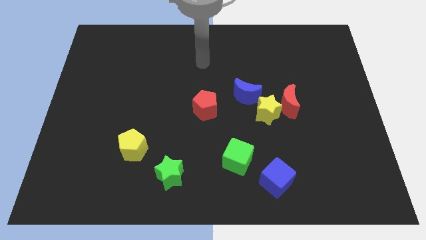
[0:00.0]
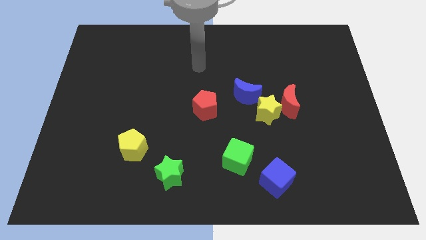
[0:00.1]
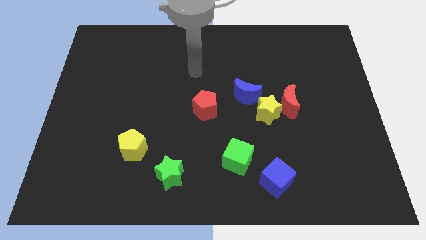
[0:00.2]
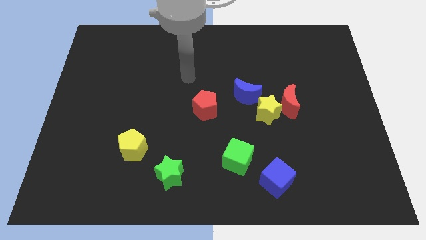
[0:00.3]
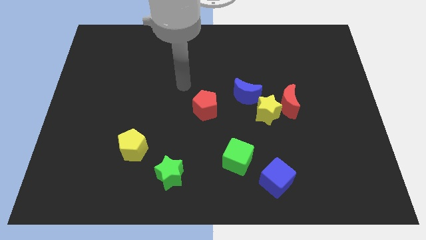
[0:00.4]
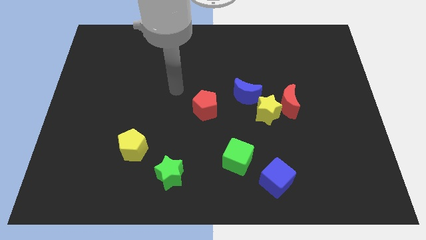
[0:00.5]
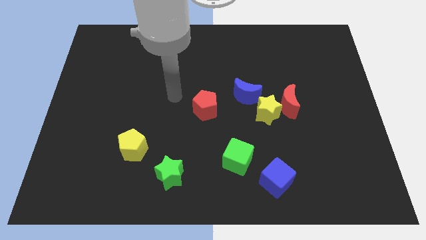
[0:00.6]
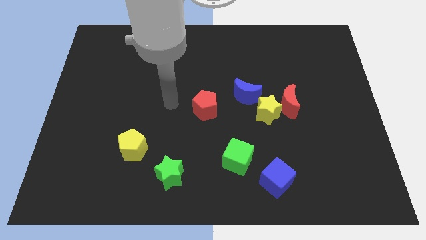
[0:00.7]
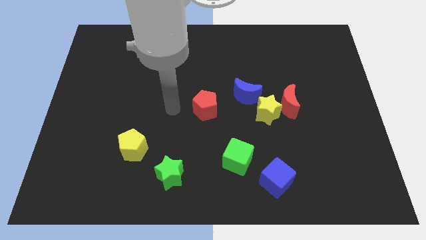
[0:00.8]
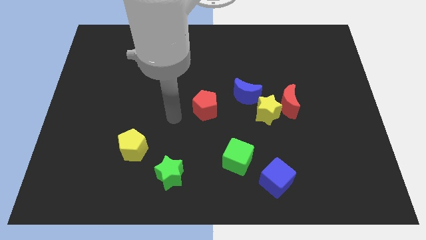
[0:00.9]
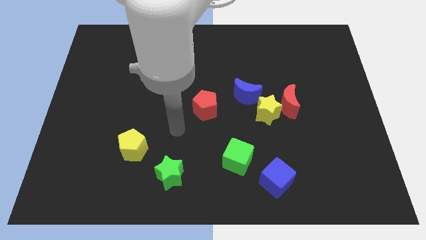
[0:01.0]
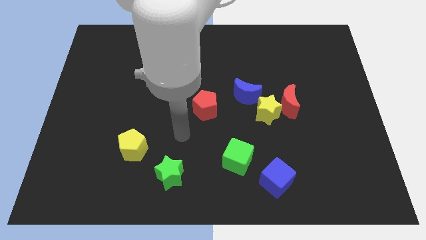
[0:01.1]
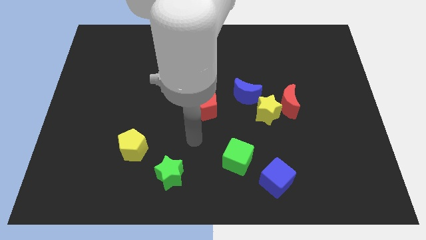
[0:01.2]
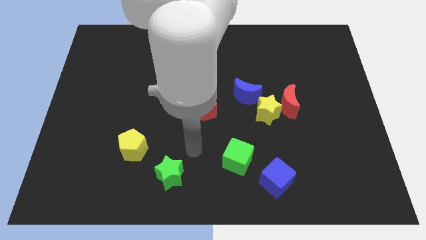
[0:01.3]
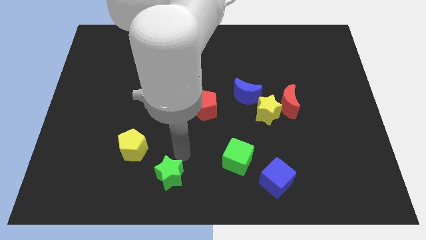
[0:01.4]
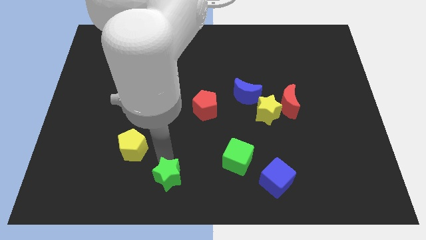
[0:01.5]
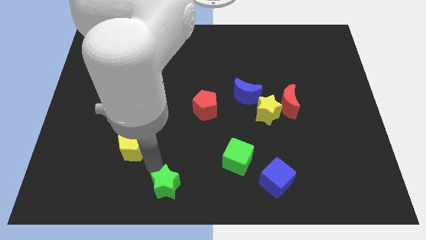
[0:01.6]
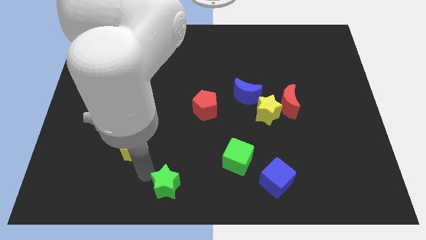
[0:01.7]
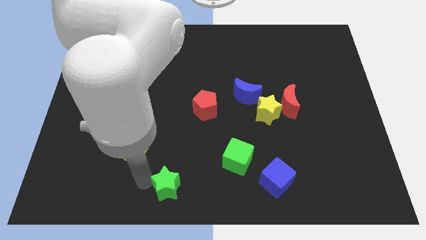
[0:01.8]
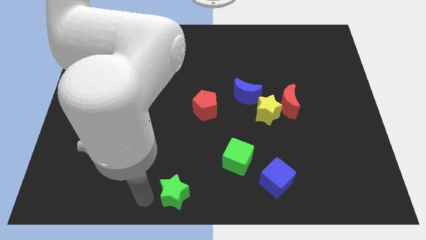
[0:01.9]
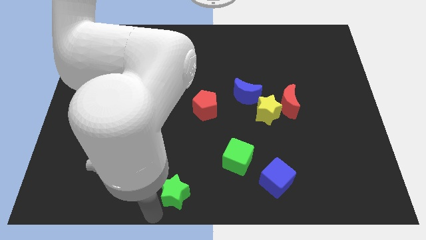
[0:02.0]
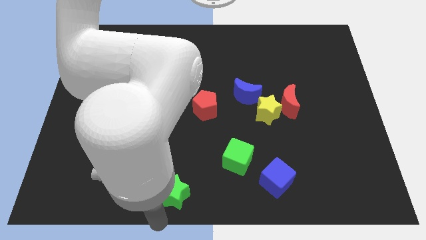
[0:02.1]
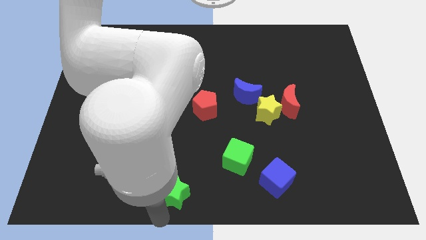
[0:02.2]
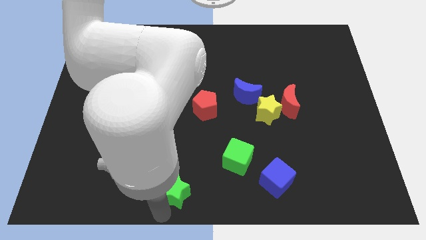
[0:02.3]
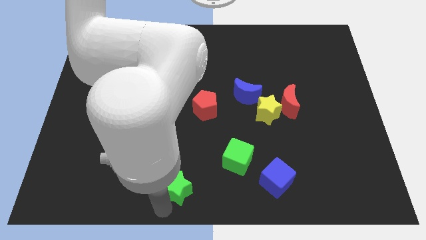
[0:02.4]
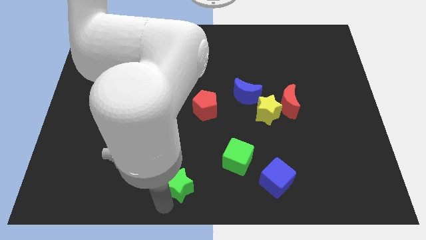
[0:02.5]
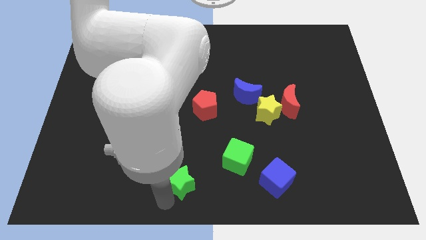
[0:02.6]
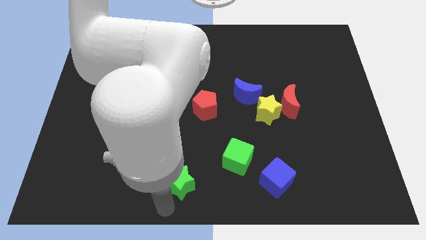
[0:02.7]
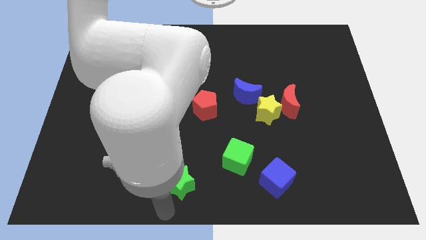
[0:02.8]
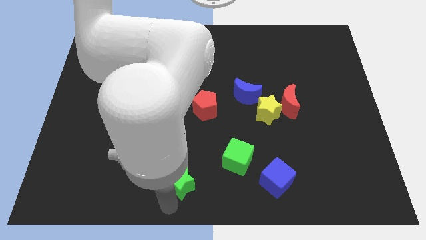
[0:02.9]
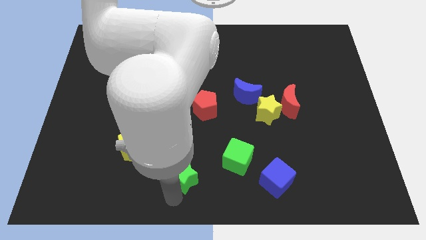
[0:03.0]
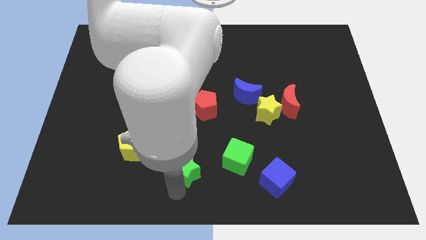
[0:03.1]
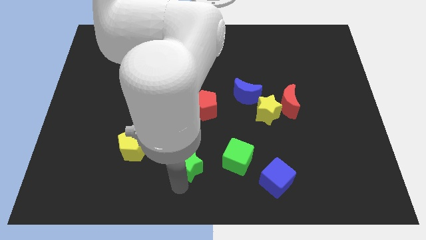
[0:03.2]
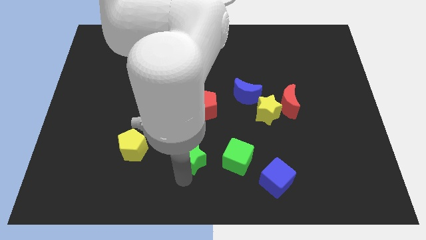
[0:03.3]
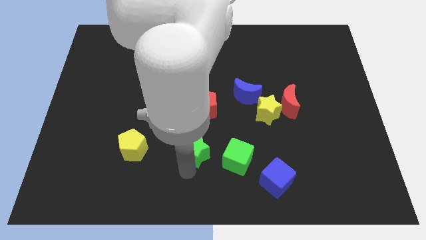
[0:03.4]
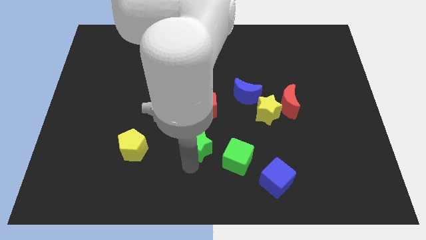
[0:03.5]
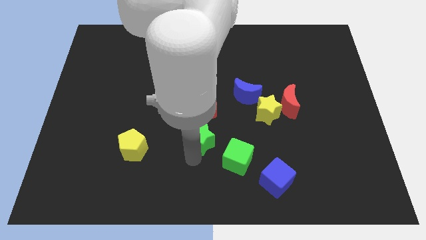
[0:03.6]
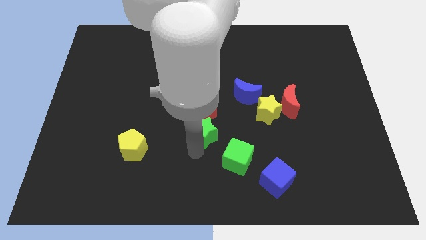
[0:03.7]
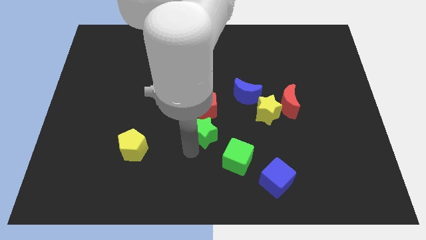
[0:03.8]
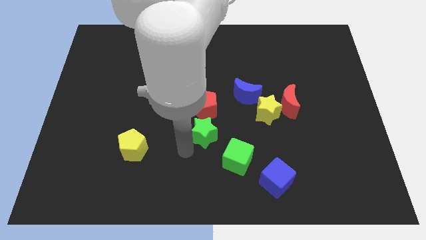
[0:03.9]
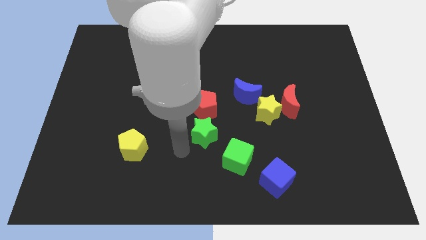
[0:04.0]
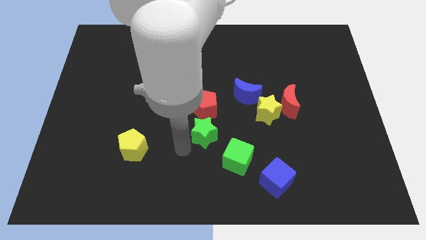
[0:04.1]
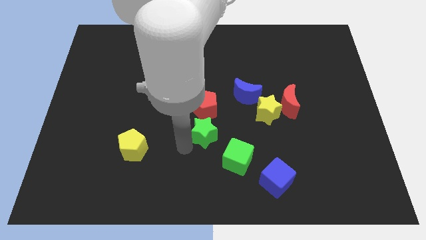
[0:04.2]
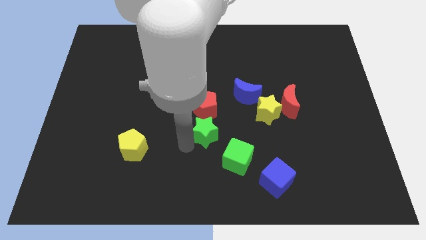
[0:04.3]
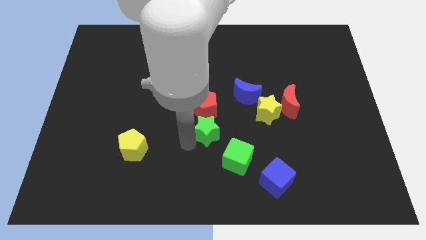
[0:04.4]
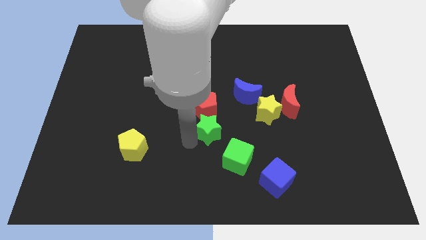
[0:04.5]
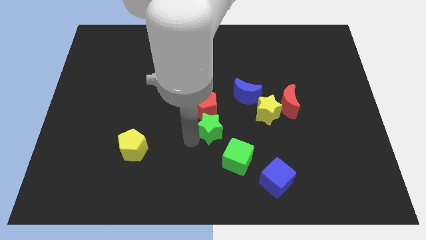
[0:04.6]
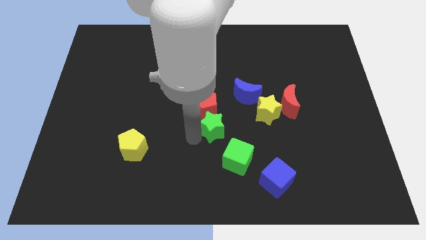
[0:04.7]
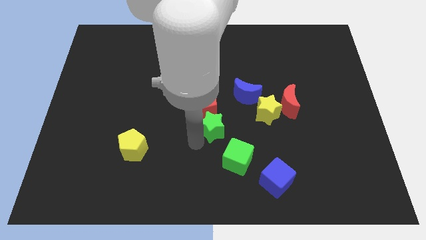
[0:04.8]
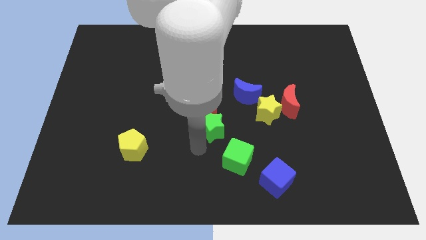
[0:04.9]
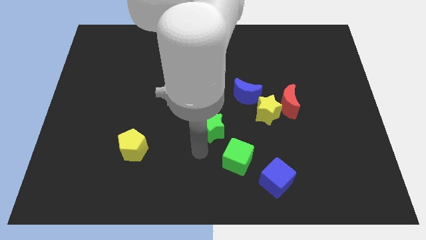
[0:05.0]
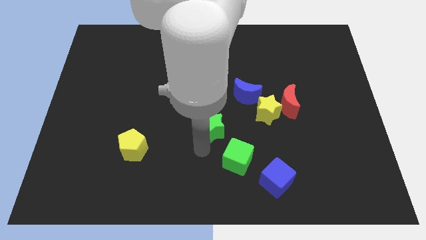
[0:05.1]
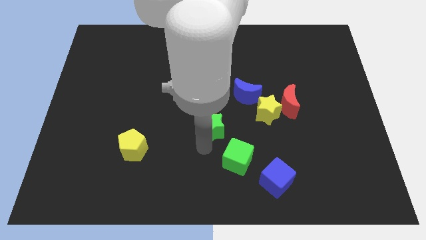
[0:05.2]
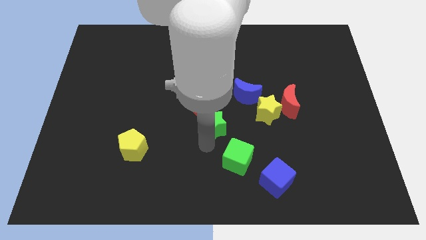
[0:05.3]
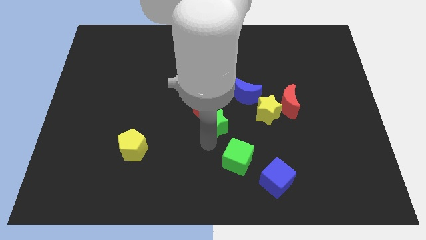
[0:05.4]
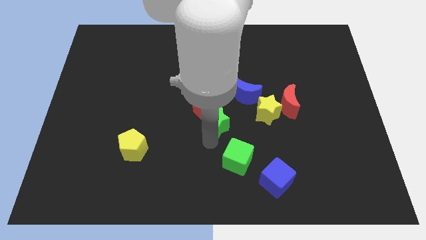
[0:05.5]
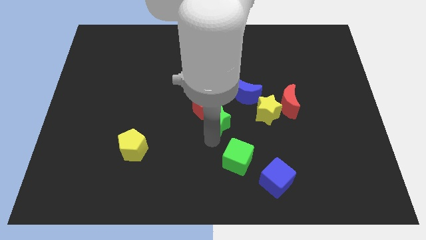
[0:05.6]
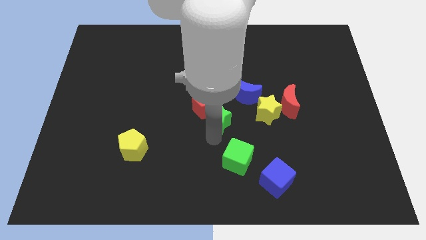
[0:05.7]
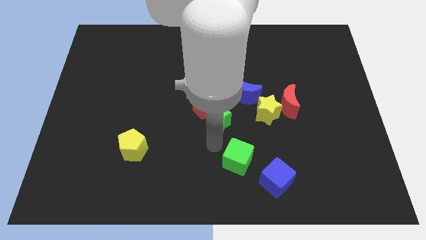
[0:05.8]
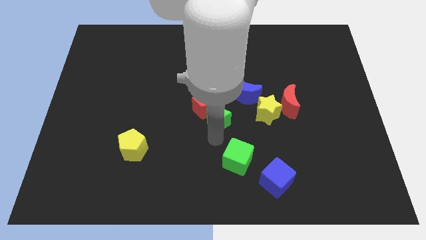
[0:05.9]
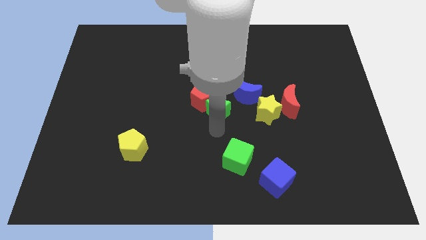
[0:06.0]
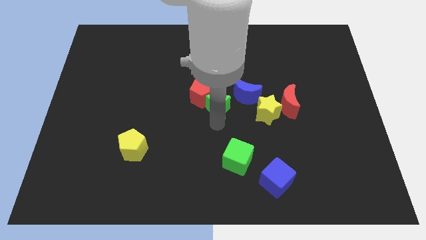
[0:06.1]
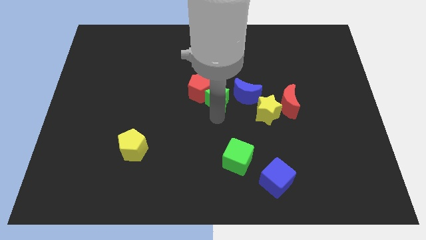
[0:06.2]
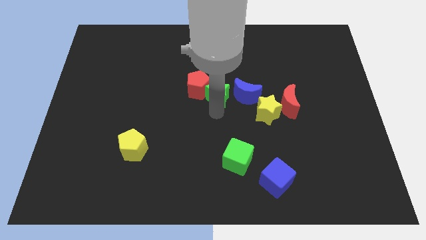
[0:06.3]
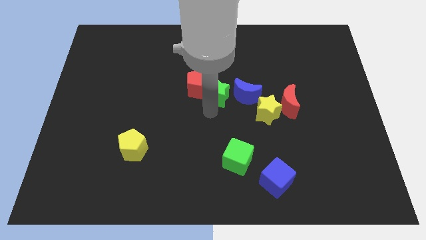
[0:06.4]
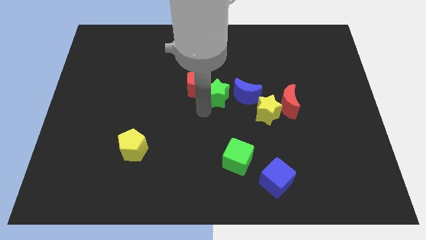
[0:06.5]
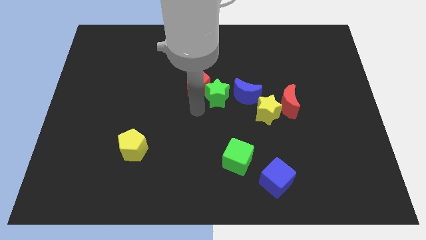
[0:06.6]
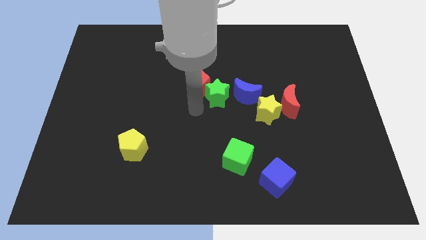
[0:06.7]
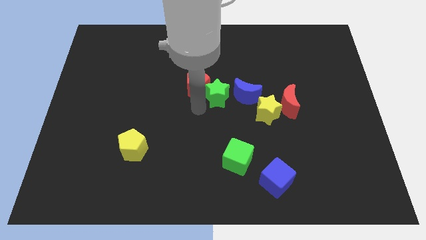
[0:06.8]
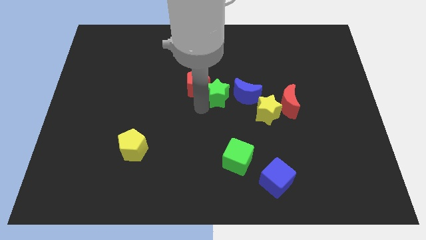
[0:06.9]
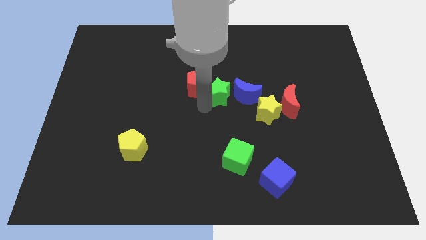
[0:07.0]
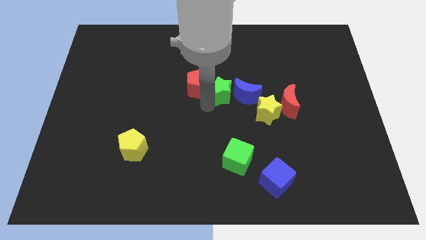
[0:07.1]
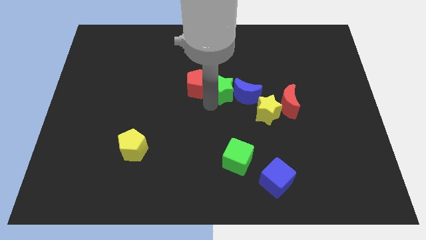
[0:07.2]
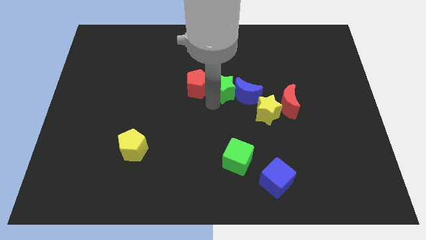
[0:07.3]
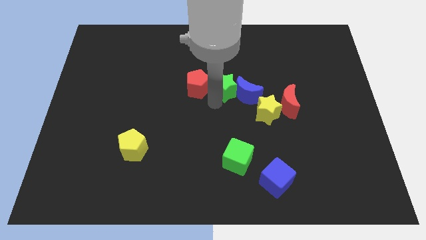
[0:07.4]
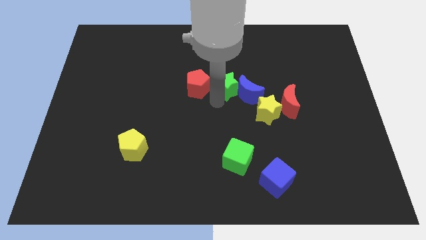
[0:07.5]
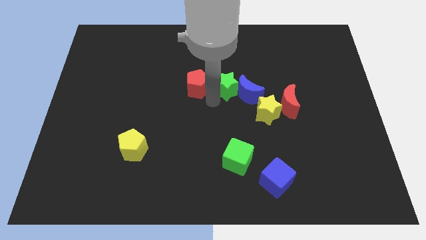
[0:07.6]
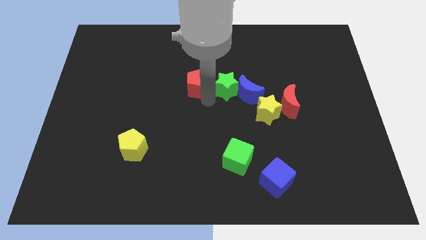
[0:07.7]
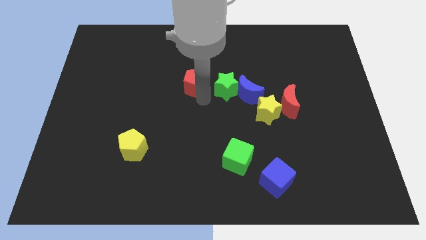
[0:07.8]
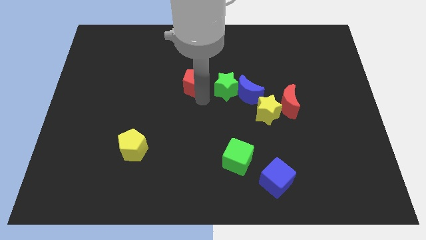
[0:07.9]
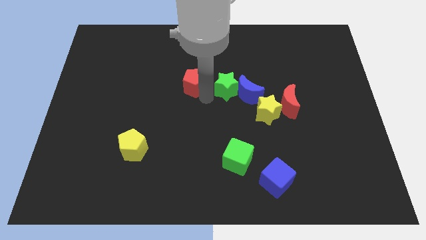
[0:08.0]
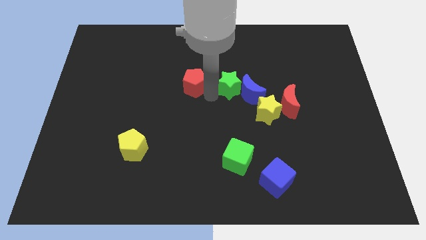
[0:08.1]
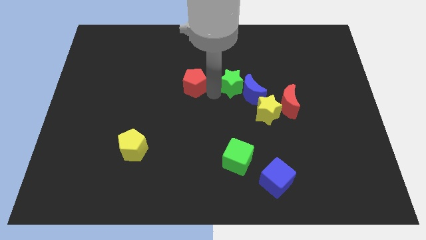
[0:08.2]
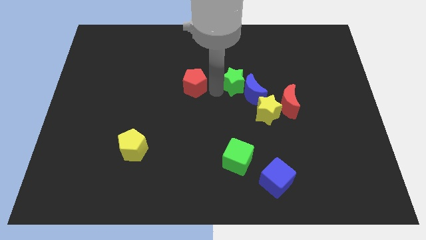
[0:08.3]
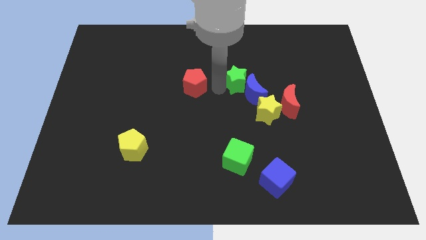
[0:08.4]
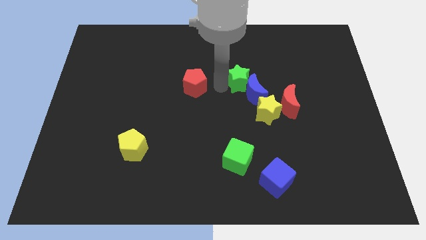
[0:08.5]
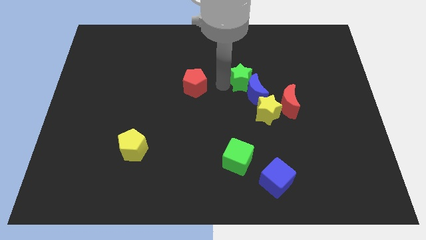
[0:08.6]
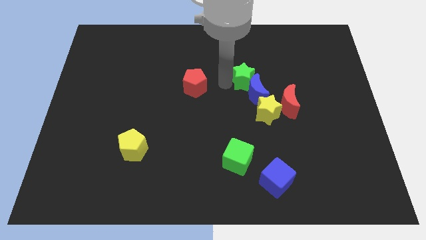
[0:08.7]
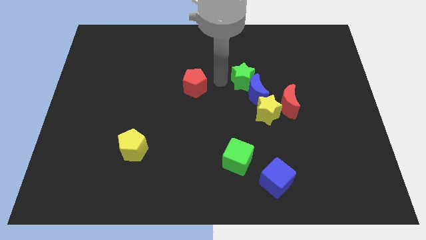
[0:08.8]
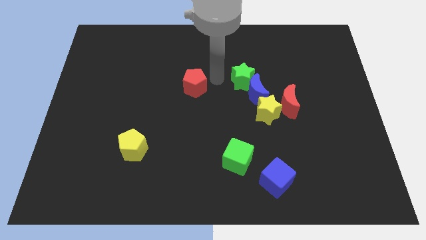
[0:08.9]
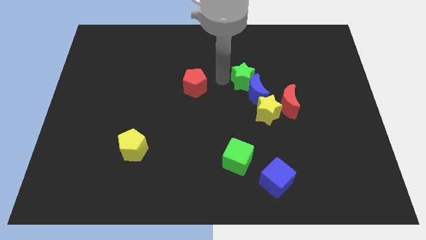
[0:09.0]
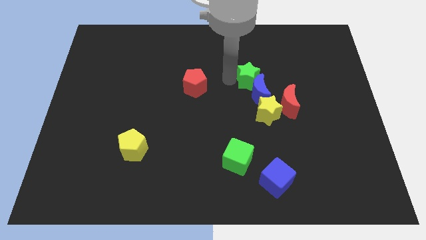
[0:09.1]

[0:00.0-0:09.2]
push the green star above the yellow star
